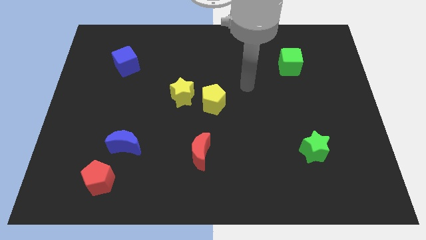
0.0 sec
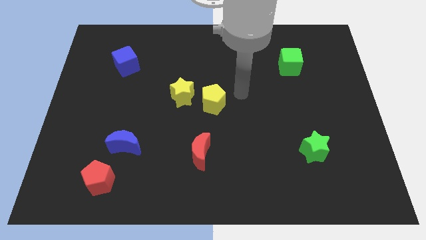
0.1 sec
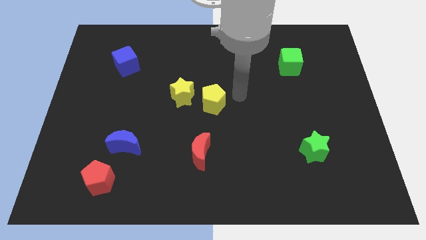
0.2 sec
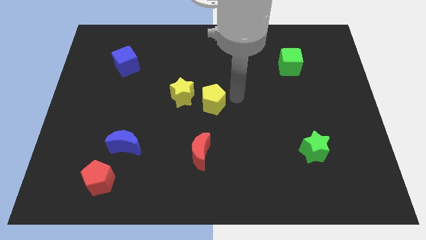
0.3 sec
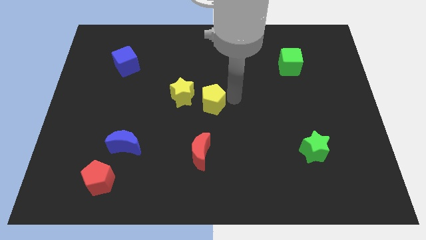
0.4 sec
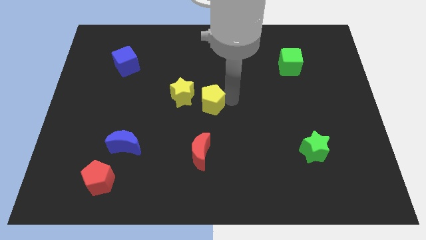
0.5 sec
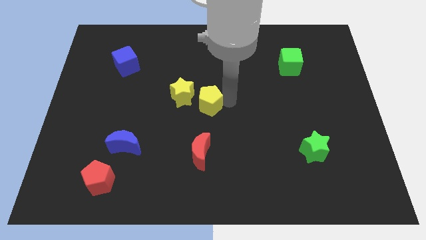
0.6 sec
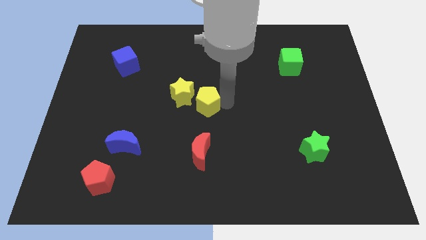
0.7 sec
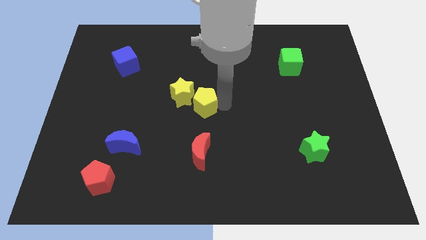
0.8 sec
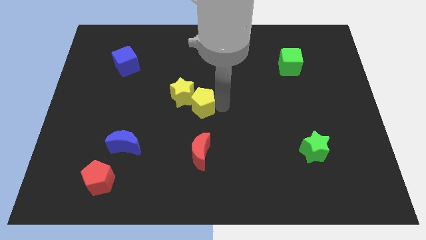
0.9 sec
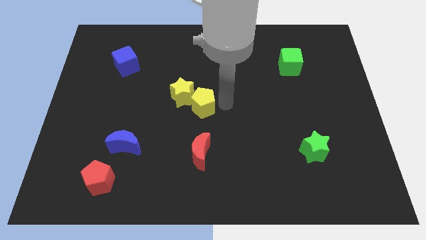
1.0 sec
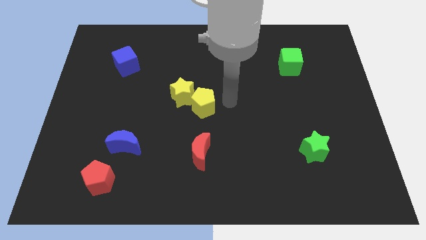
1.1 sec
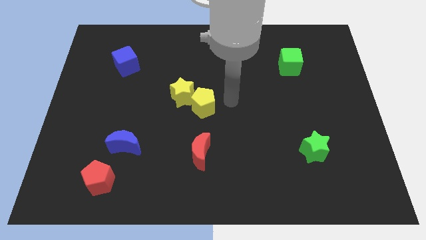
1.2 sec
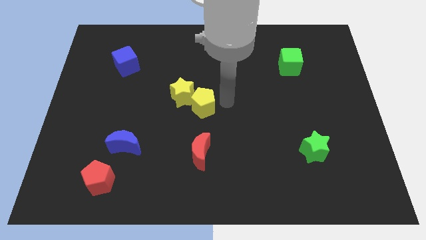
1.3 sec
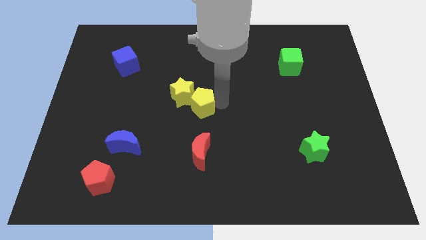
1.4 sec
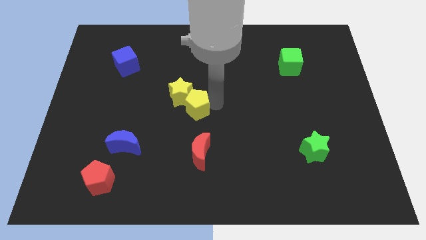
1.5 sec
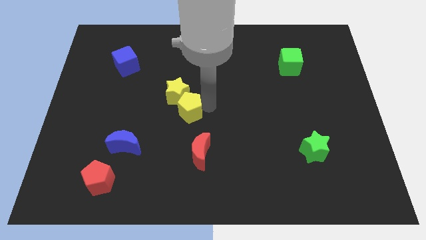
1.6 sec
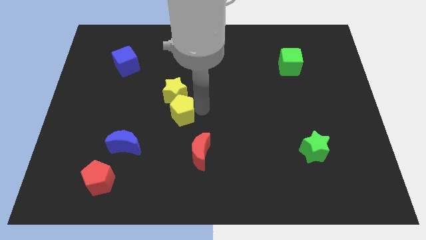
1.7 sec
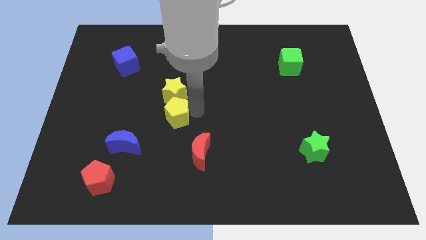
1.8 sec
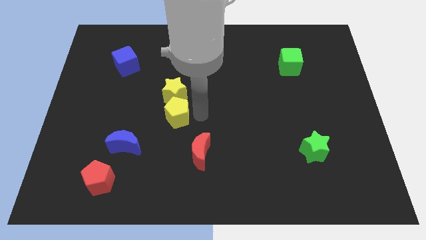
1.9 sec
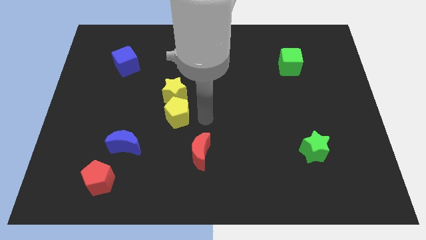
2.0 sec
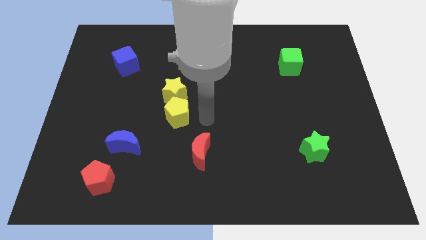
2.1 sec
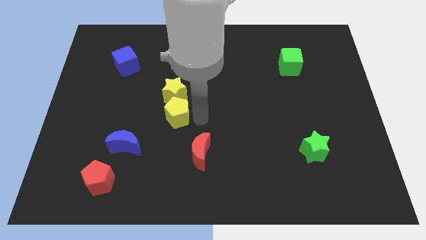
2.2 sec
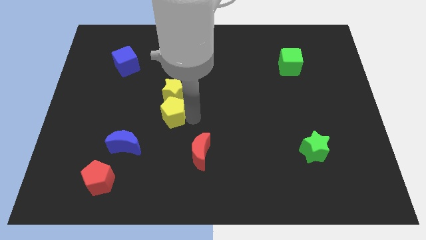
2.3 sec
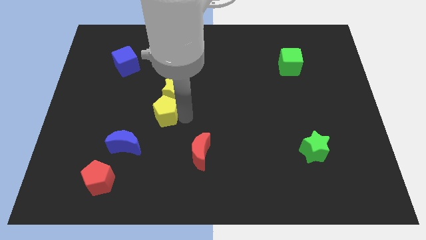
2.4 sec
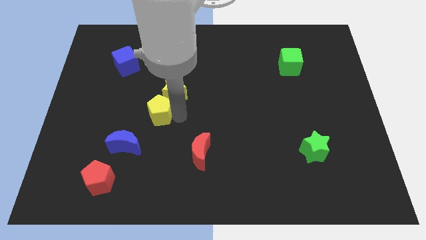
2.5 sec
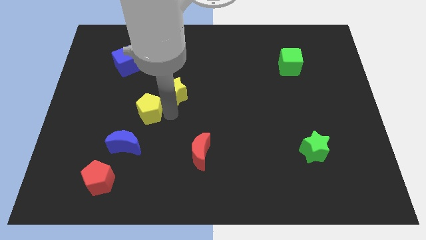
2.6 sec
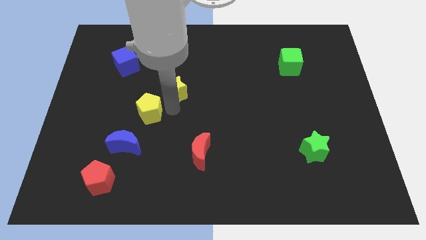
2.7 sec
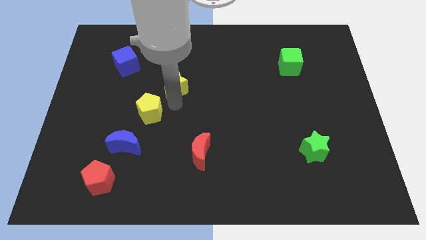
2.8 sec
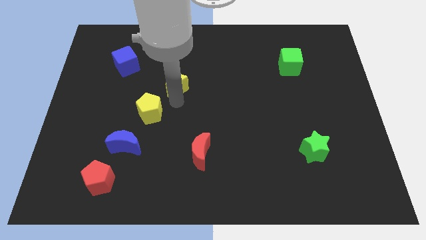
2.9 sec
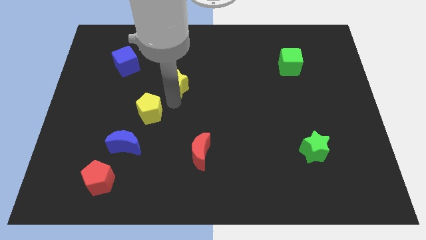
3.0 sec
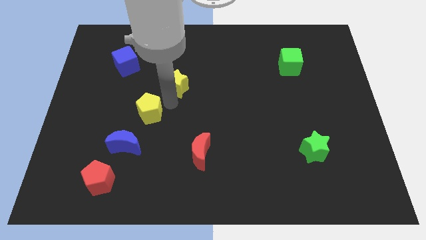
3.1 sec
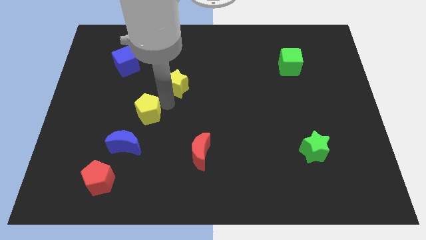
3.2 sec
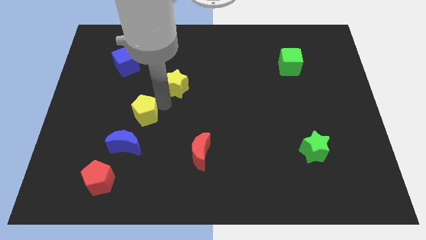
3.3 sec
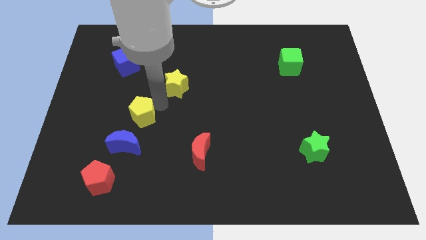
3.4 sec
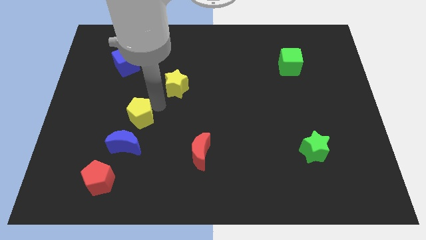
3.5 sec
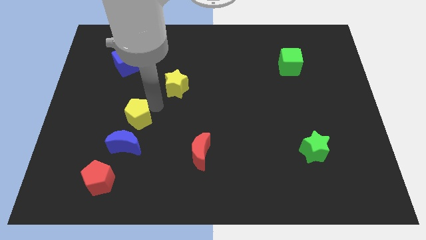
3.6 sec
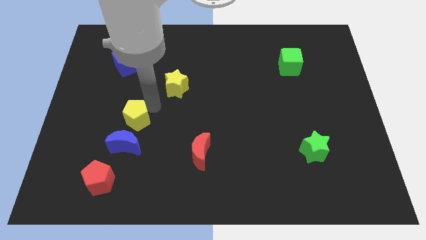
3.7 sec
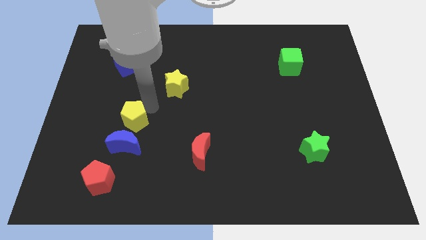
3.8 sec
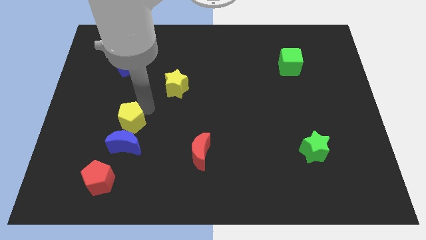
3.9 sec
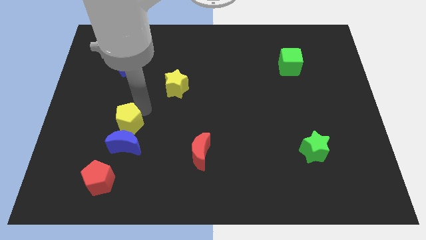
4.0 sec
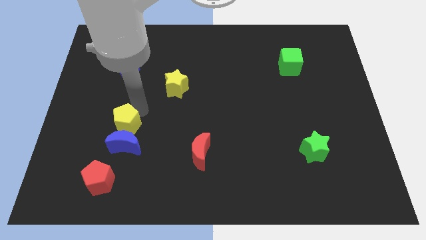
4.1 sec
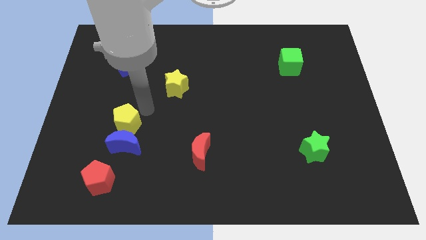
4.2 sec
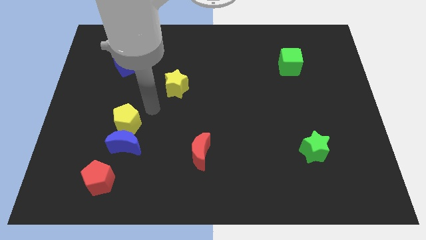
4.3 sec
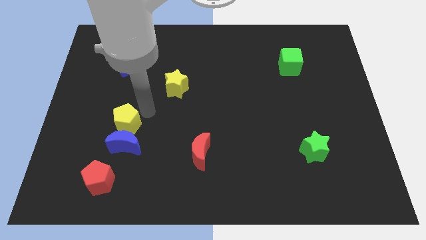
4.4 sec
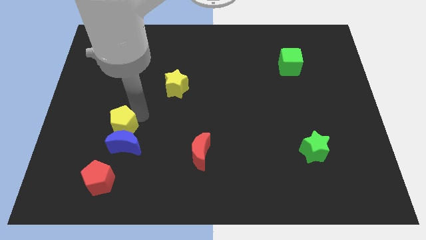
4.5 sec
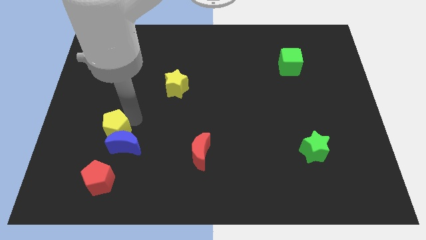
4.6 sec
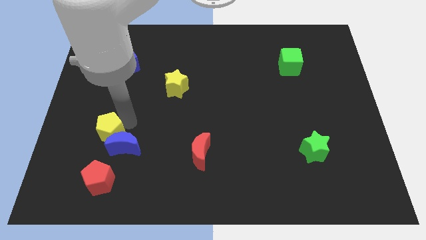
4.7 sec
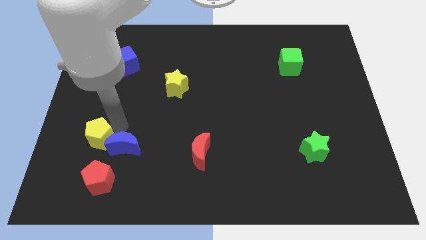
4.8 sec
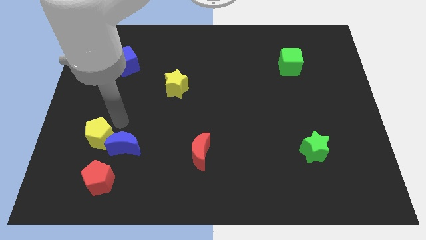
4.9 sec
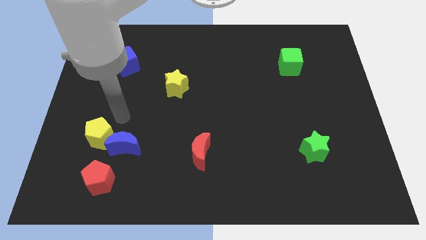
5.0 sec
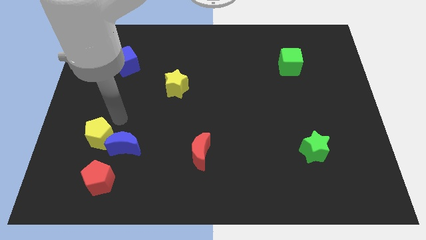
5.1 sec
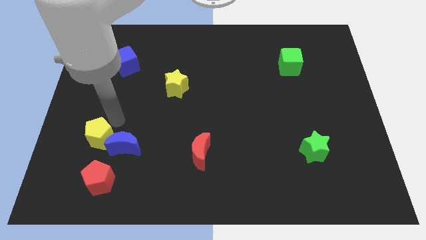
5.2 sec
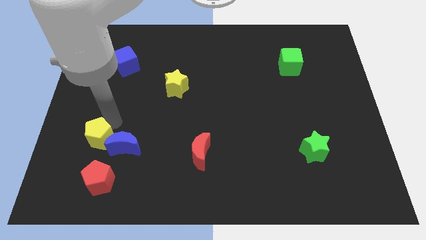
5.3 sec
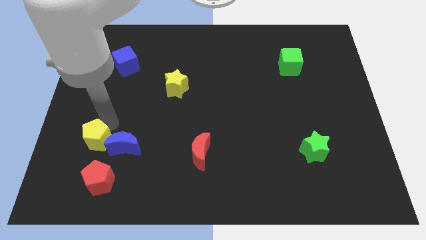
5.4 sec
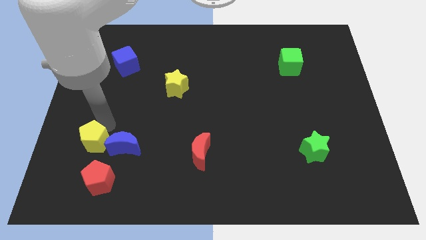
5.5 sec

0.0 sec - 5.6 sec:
put the yellow pentagon to the top left of the red pentagon

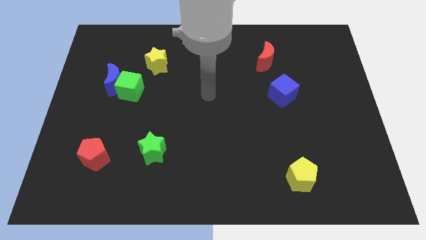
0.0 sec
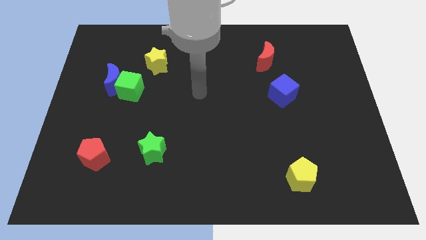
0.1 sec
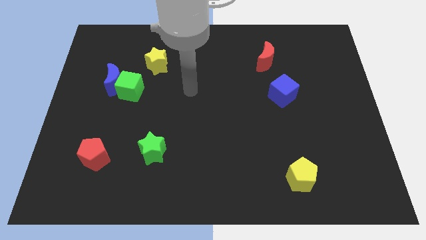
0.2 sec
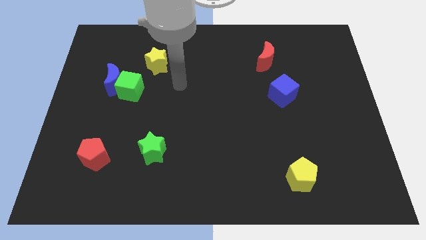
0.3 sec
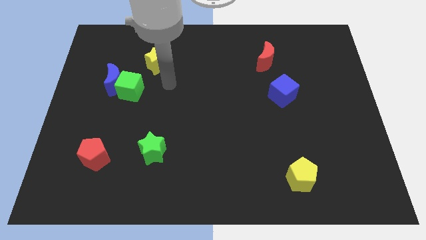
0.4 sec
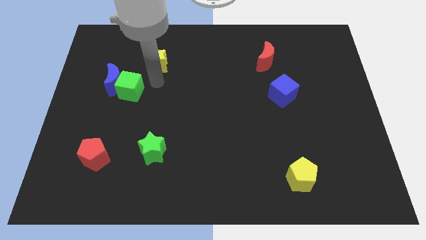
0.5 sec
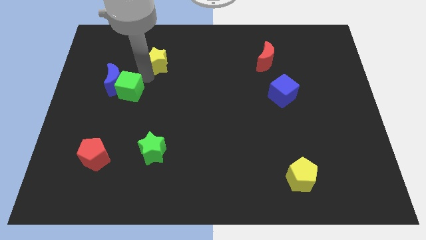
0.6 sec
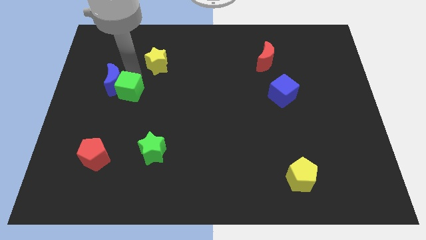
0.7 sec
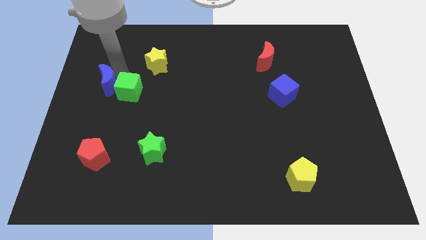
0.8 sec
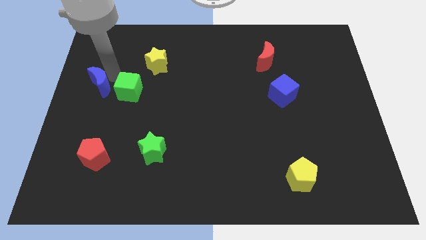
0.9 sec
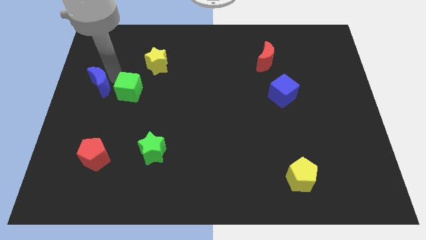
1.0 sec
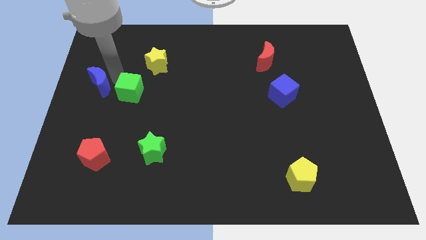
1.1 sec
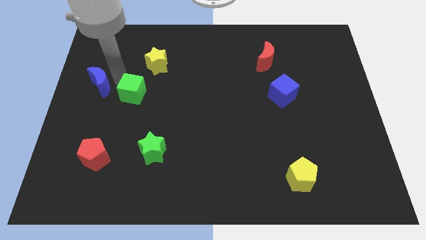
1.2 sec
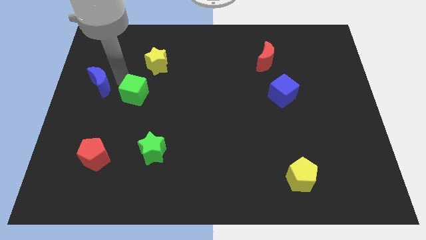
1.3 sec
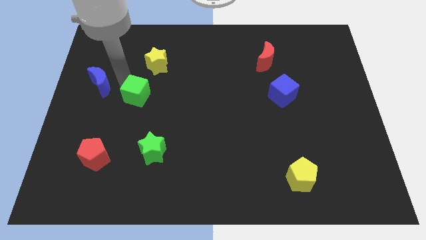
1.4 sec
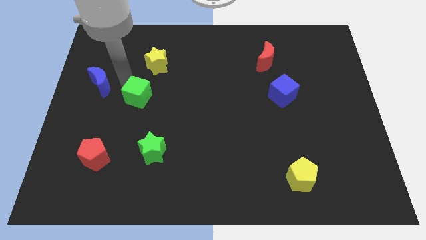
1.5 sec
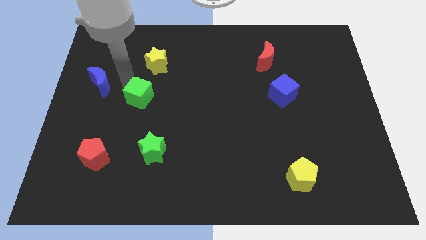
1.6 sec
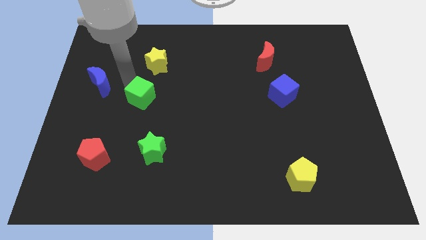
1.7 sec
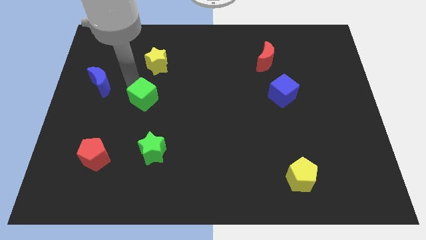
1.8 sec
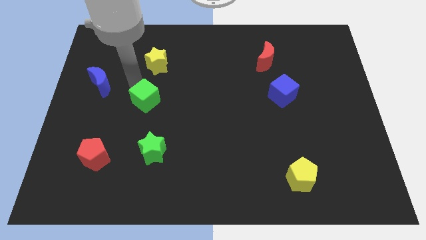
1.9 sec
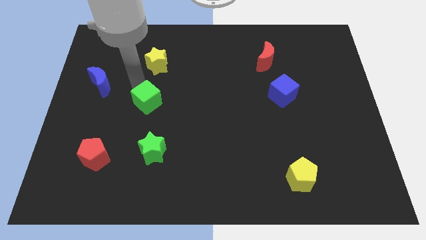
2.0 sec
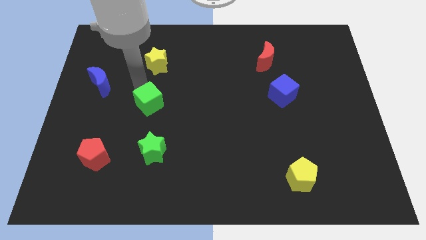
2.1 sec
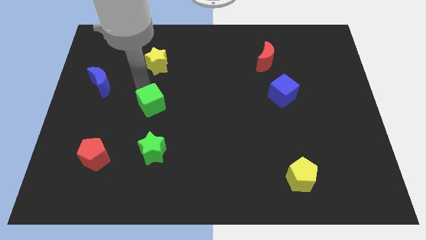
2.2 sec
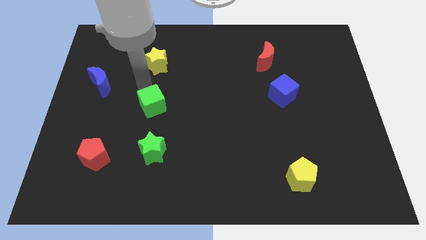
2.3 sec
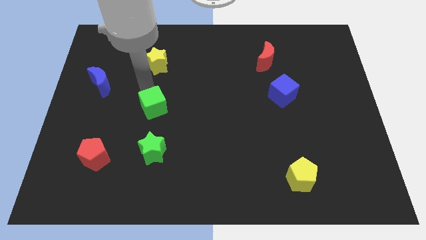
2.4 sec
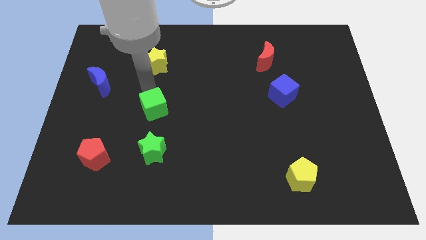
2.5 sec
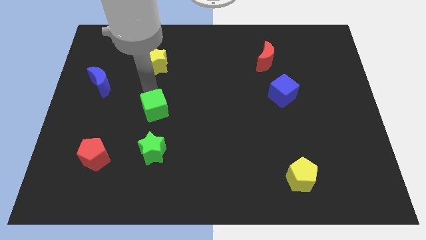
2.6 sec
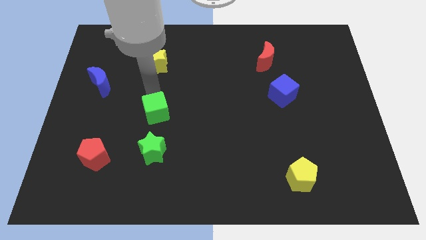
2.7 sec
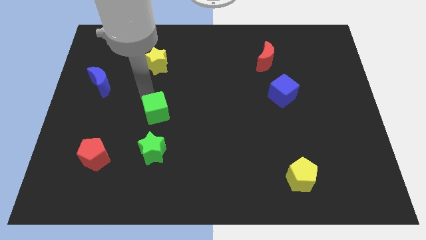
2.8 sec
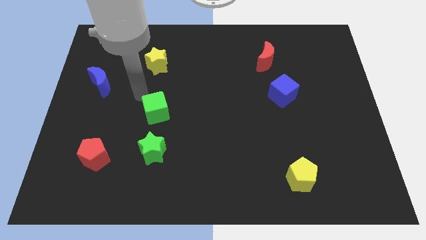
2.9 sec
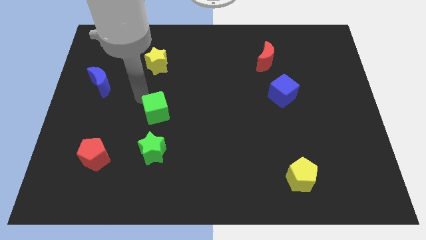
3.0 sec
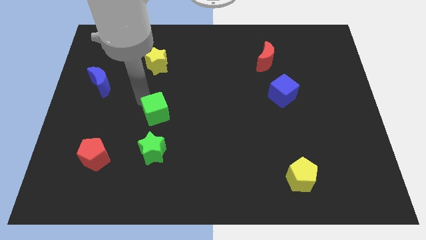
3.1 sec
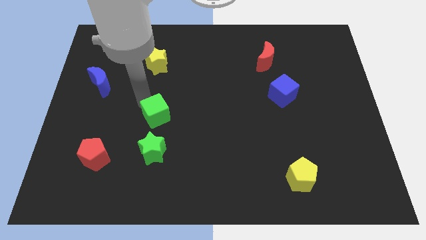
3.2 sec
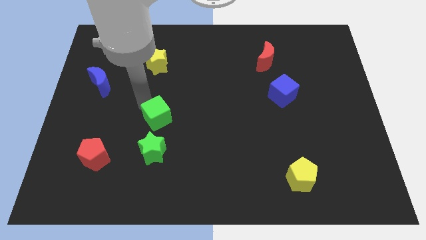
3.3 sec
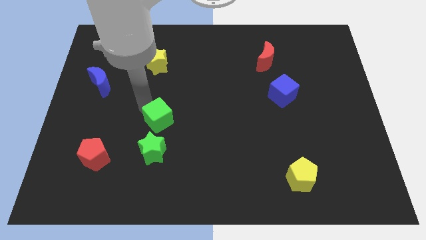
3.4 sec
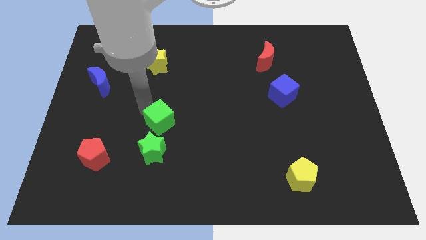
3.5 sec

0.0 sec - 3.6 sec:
push the green cube to the top right side of the green star
